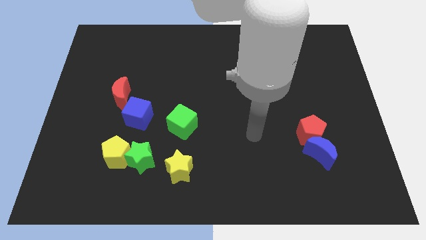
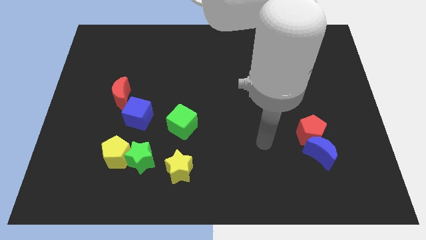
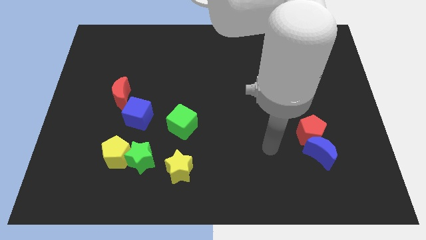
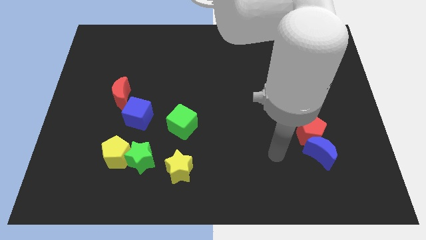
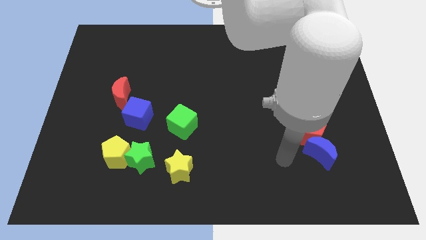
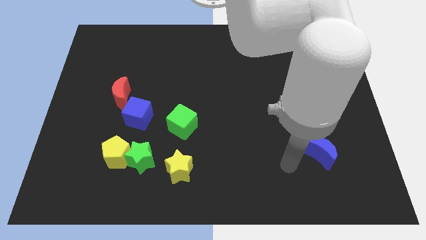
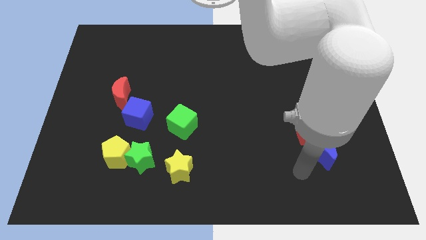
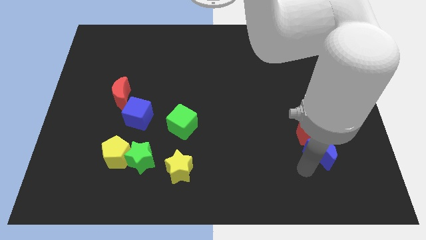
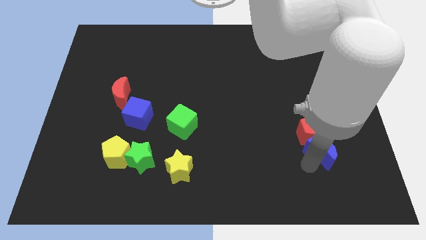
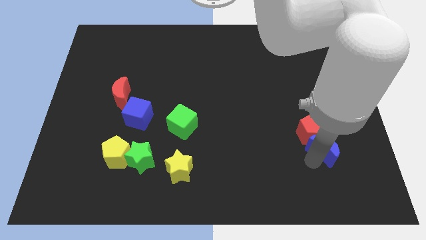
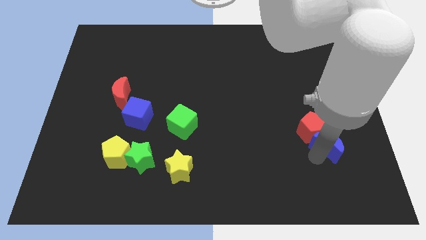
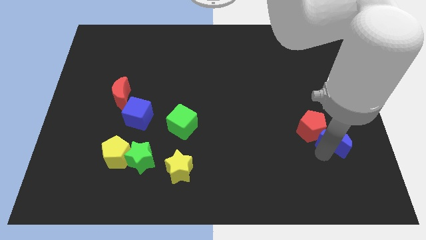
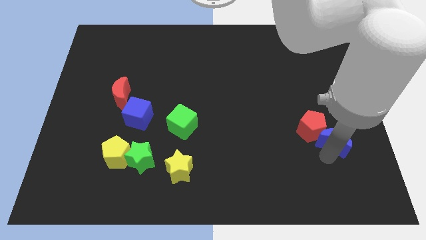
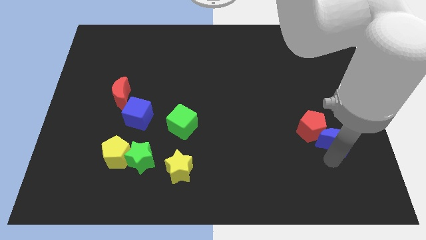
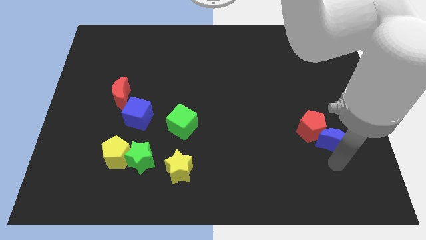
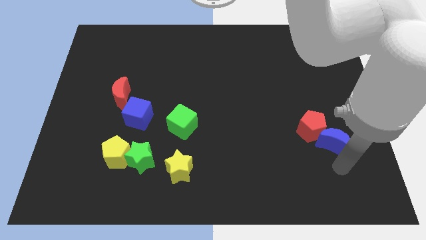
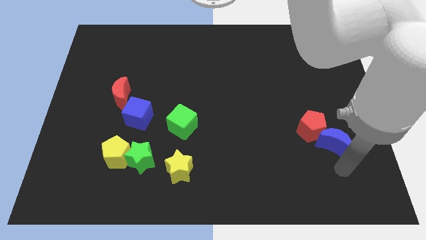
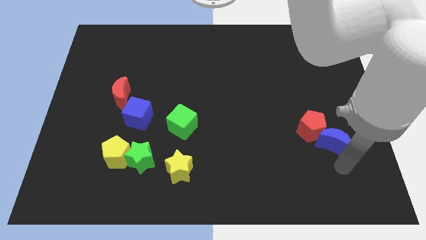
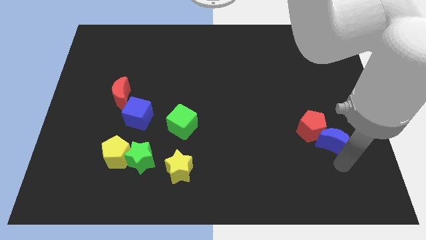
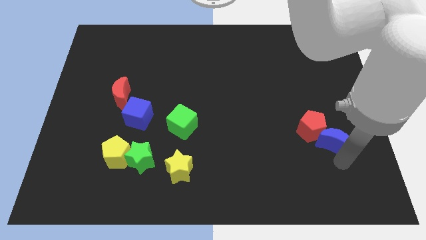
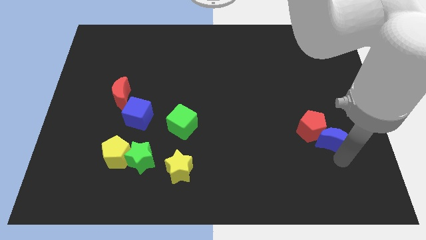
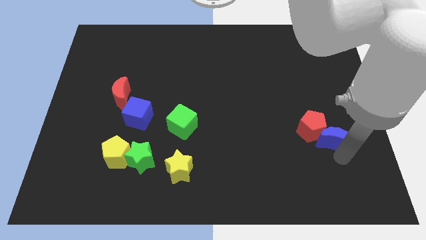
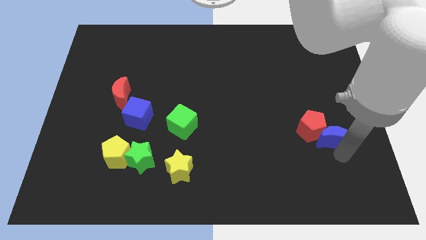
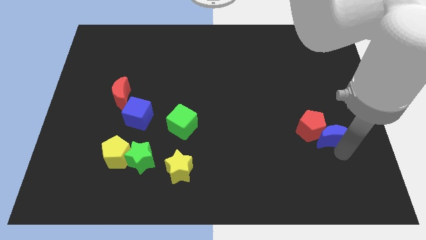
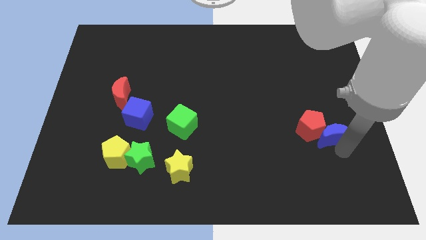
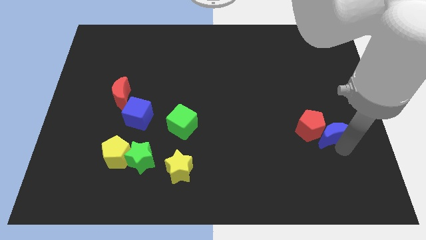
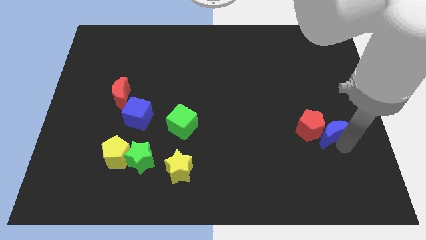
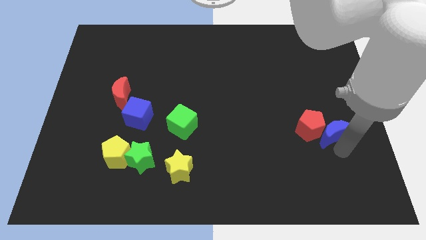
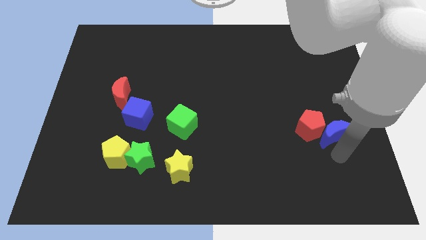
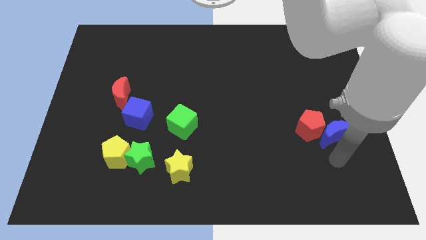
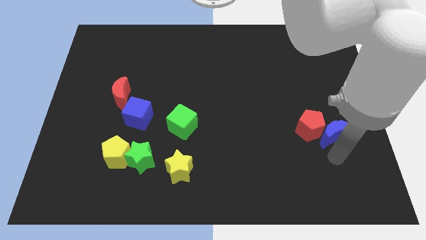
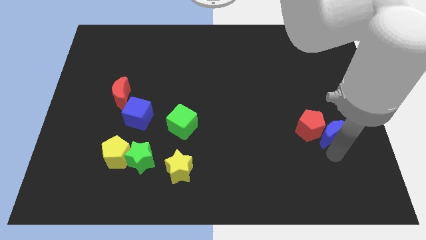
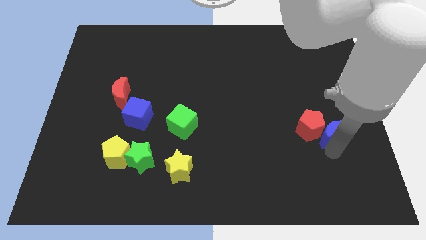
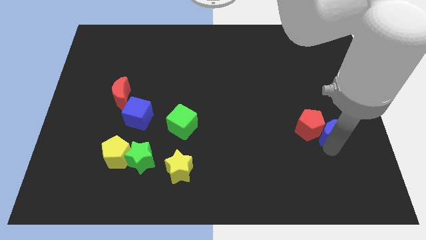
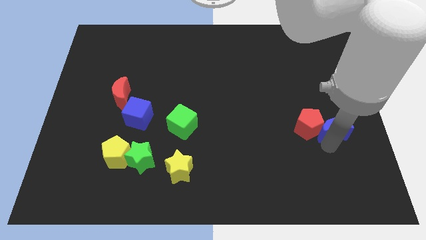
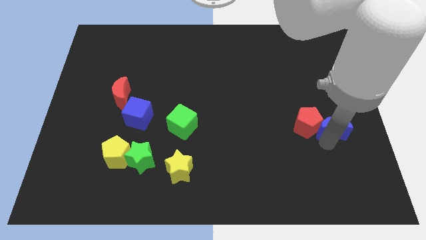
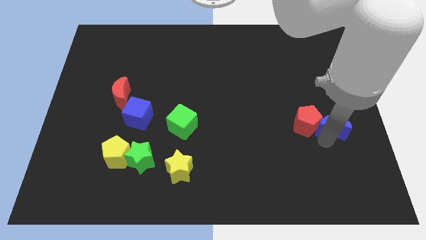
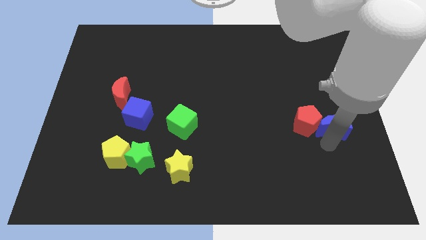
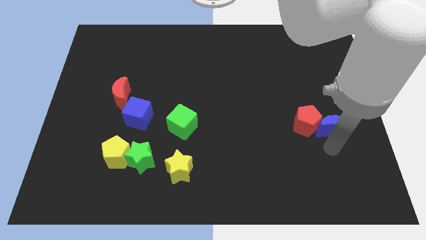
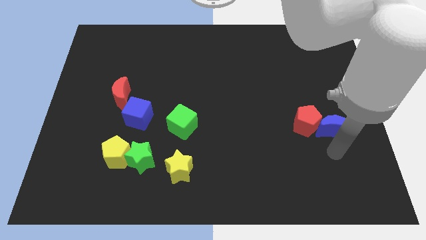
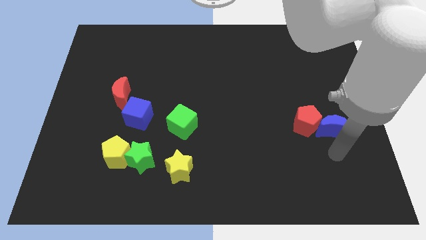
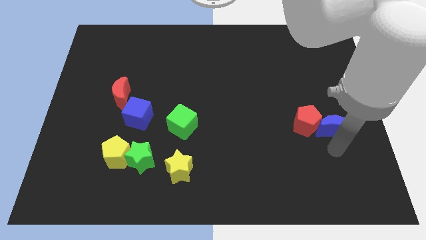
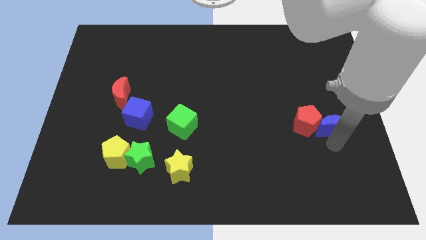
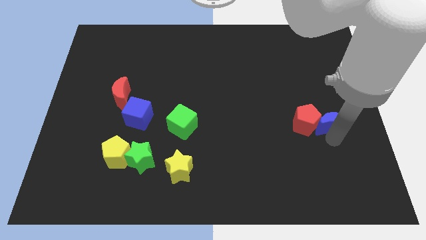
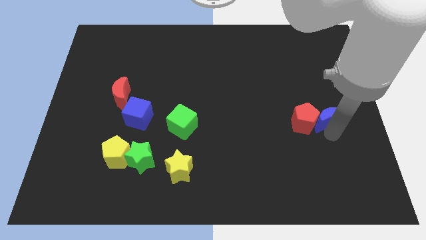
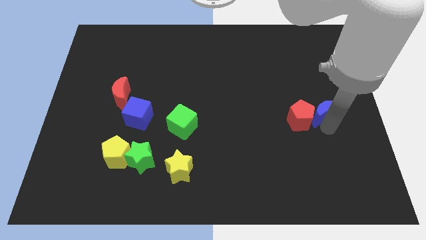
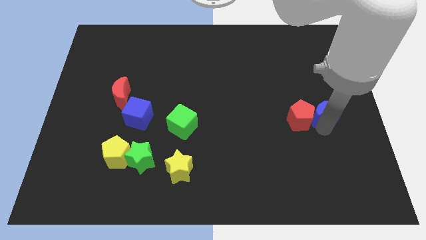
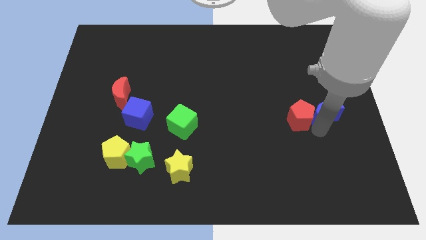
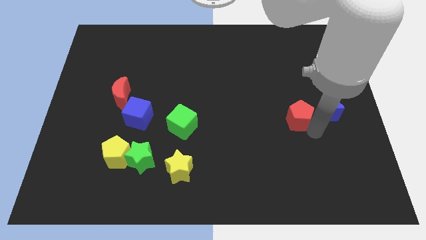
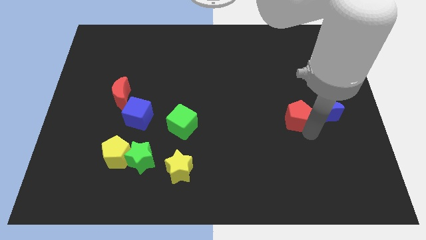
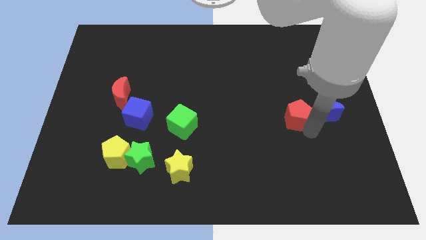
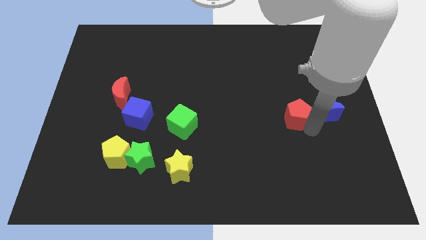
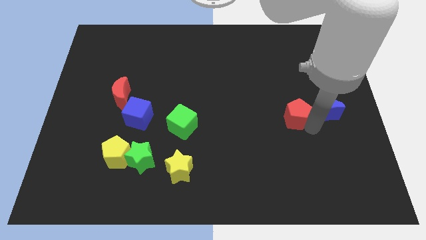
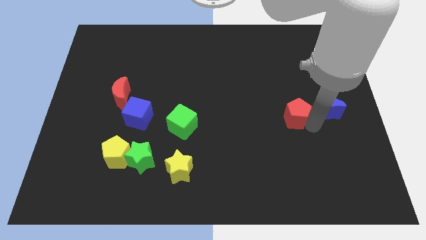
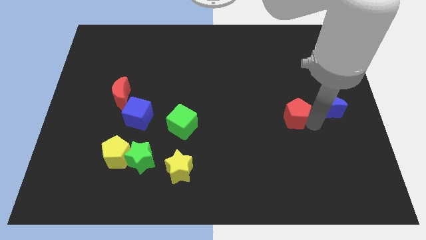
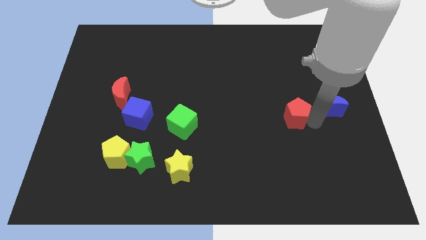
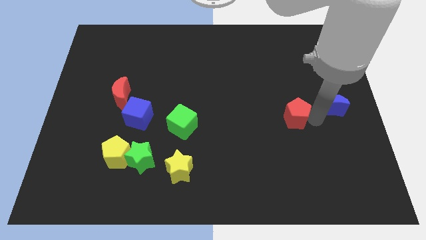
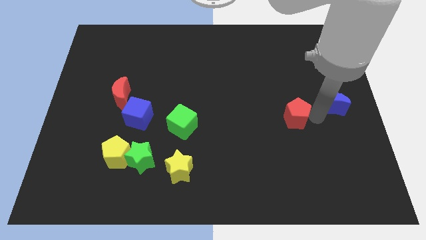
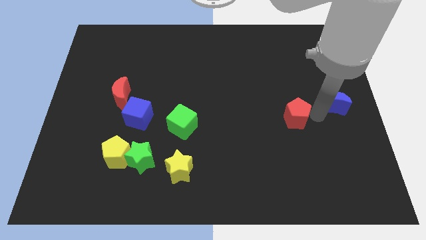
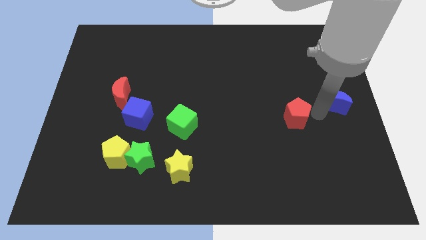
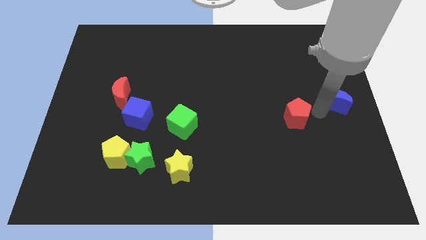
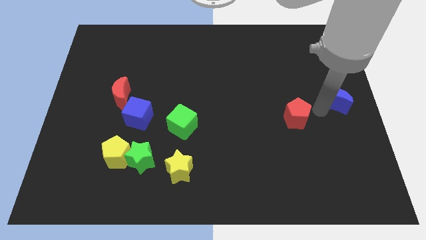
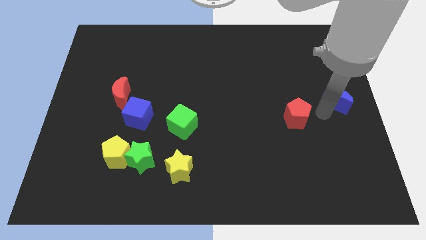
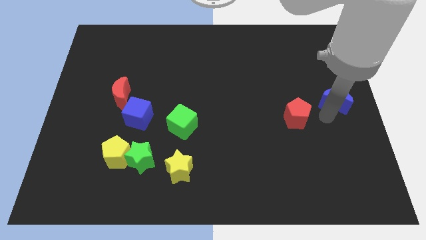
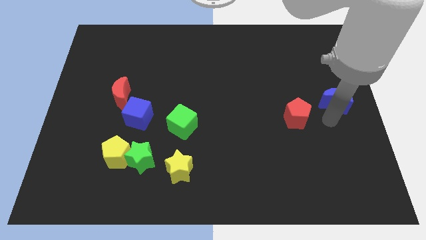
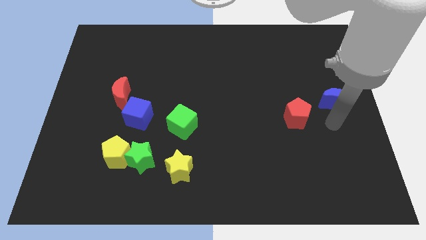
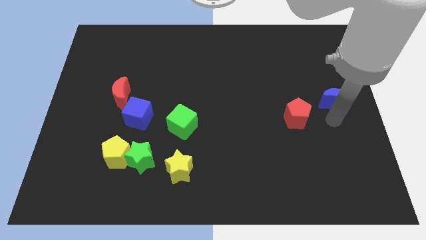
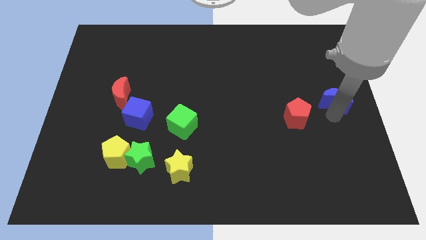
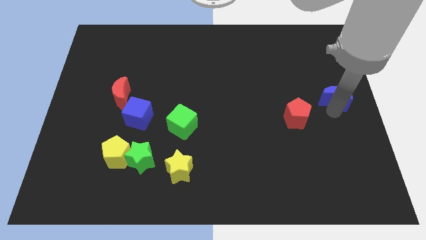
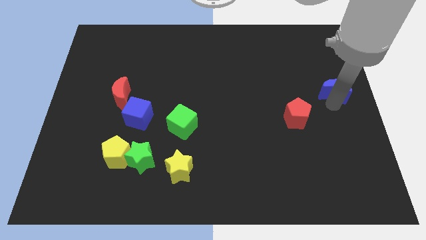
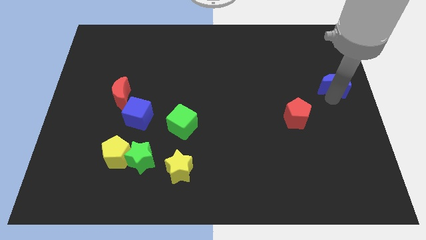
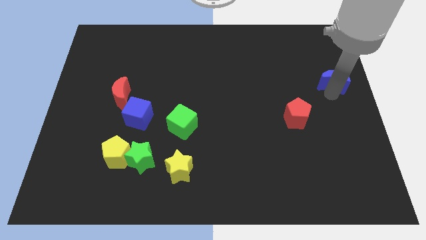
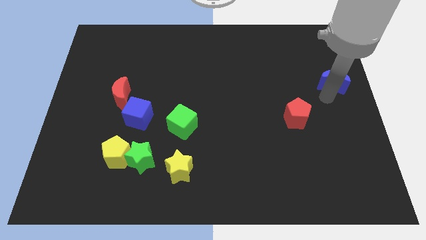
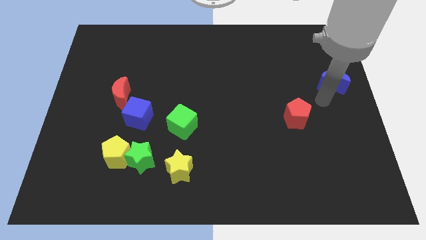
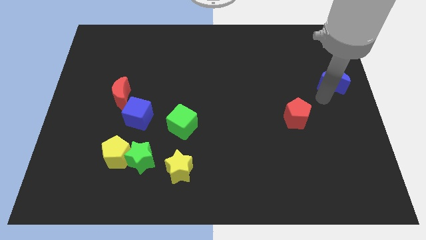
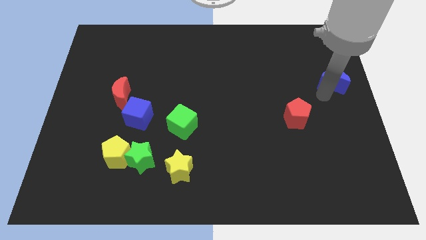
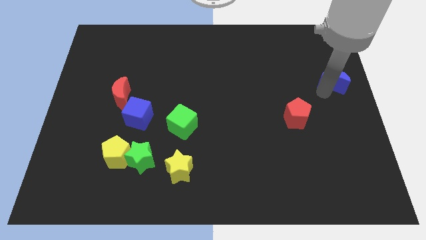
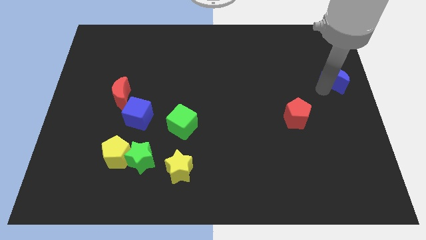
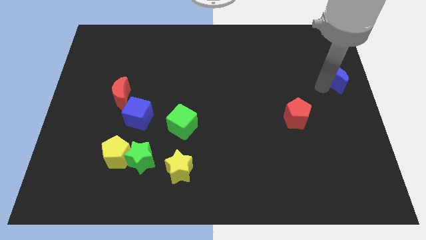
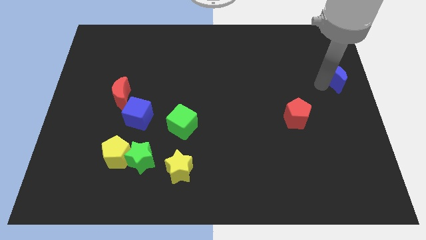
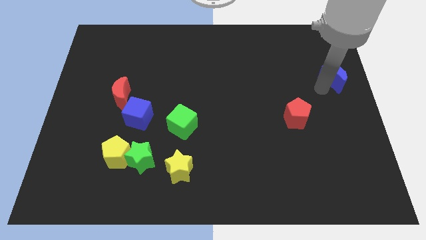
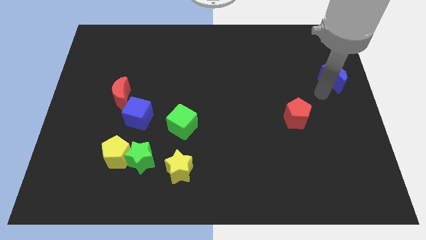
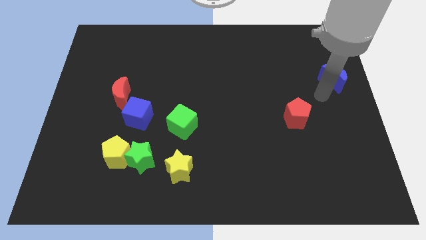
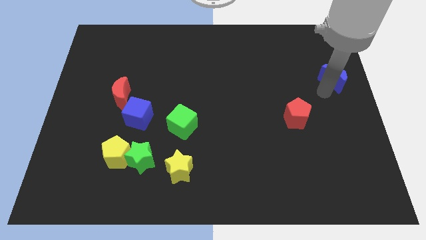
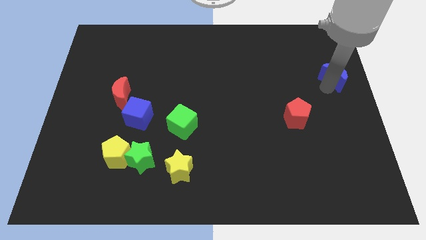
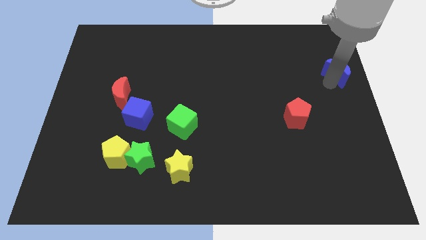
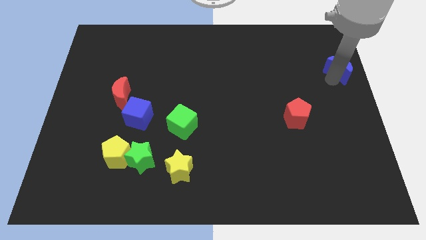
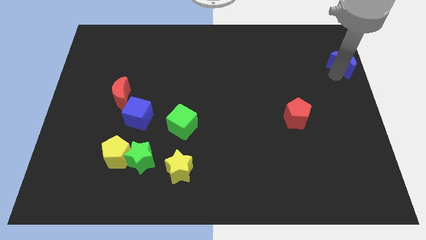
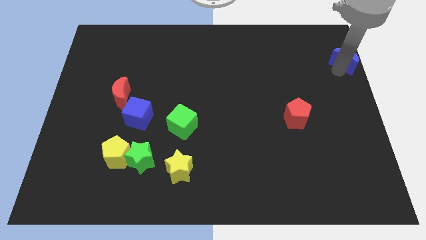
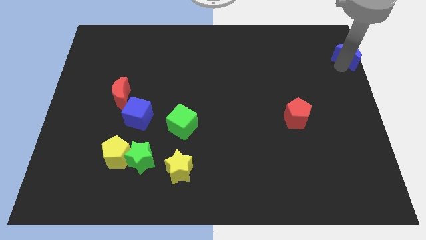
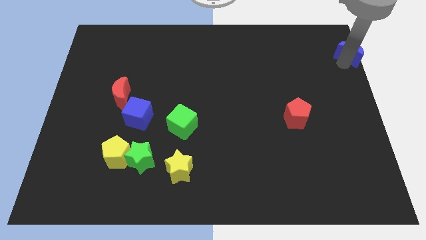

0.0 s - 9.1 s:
slide the blue moon to the top right of the board
